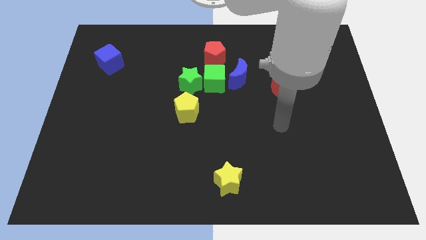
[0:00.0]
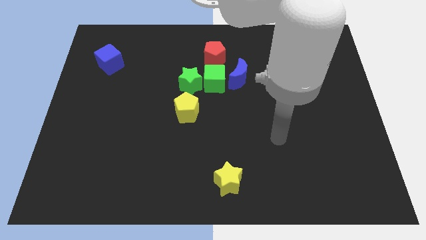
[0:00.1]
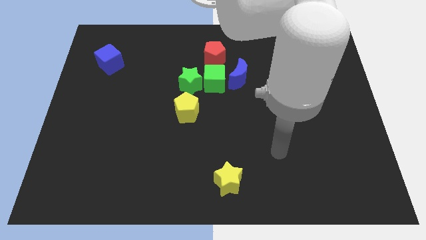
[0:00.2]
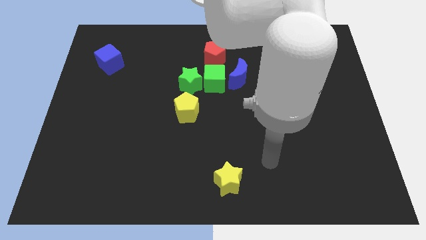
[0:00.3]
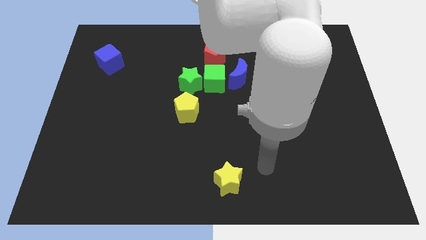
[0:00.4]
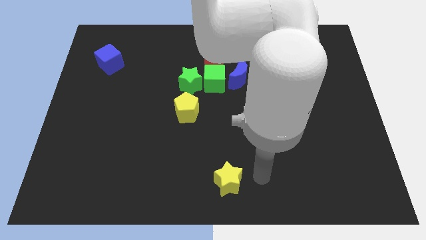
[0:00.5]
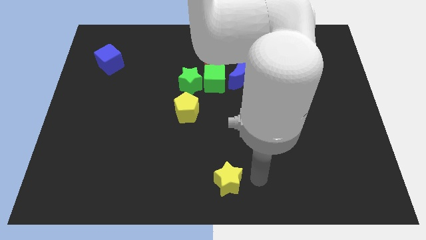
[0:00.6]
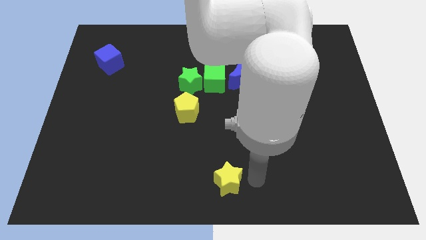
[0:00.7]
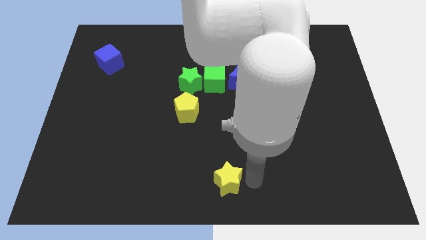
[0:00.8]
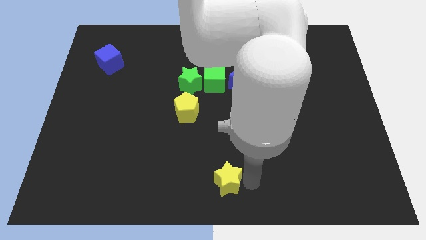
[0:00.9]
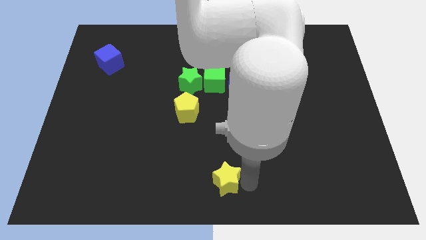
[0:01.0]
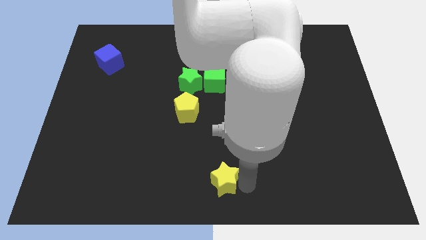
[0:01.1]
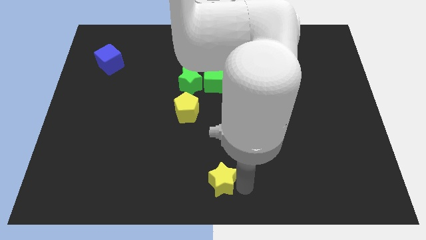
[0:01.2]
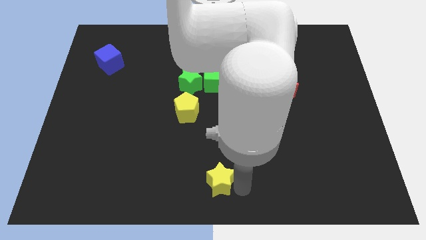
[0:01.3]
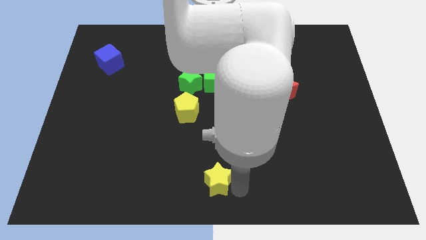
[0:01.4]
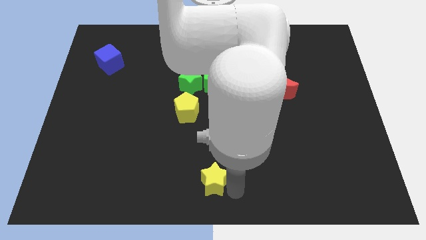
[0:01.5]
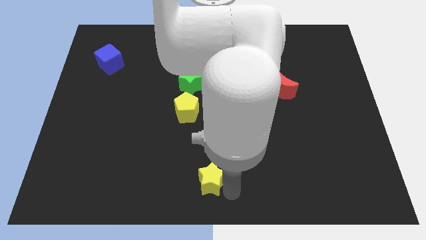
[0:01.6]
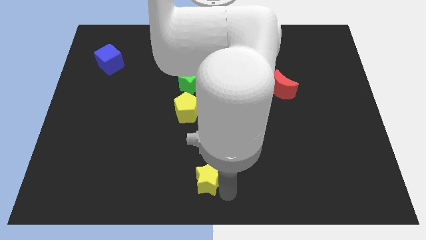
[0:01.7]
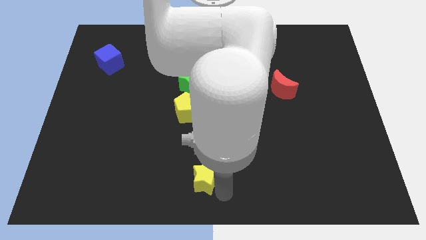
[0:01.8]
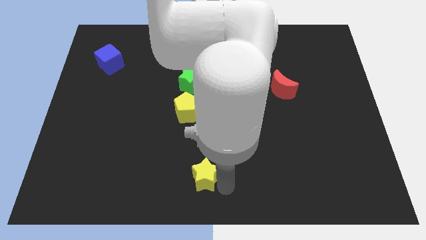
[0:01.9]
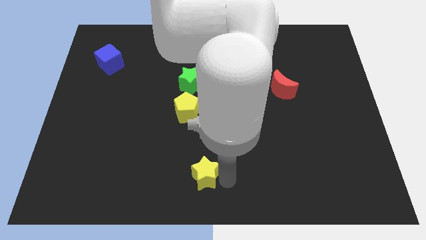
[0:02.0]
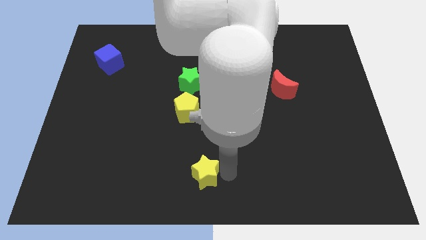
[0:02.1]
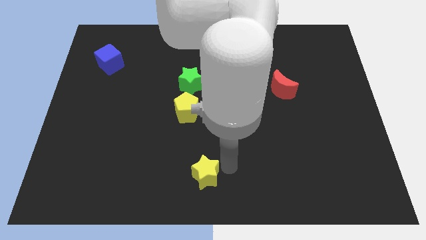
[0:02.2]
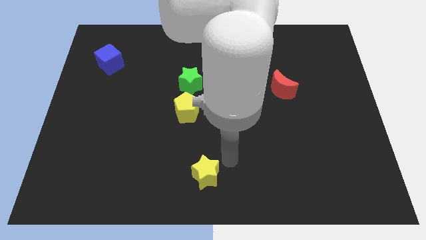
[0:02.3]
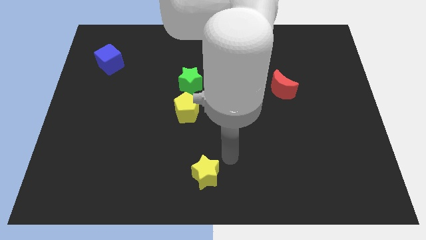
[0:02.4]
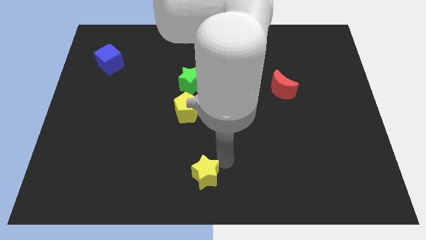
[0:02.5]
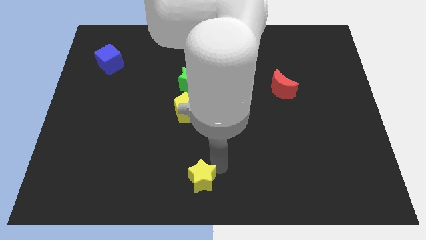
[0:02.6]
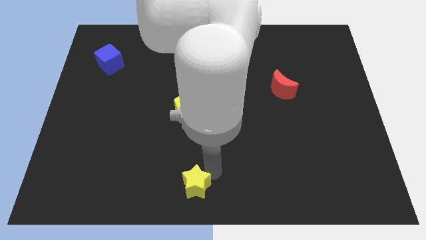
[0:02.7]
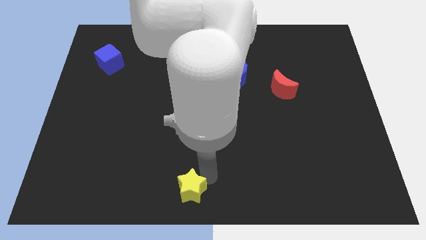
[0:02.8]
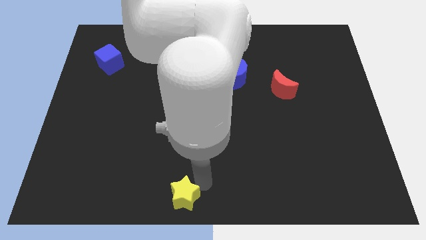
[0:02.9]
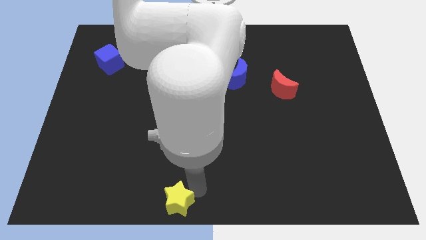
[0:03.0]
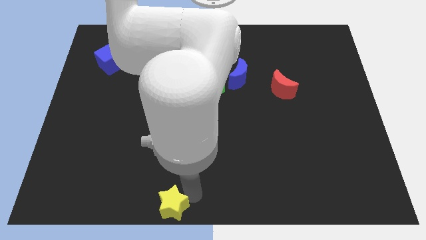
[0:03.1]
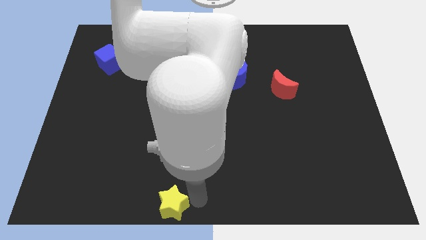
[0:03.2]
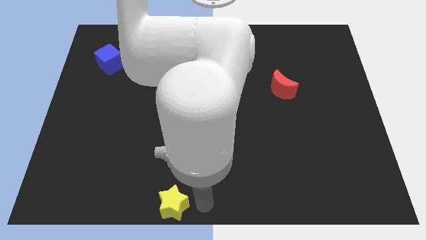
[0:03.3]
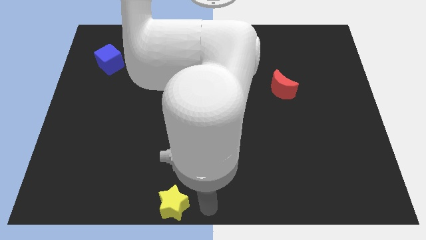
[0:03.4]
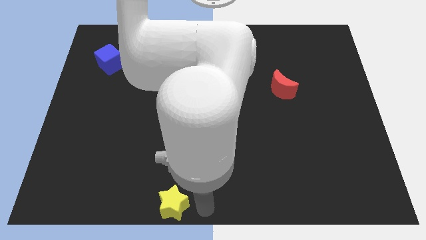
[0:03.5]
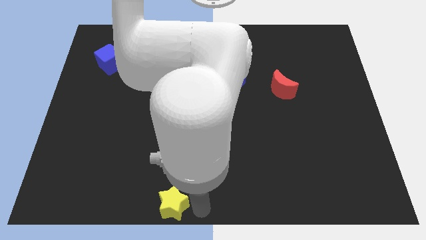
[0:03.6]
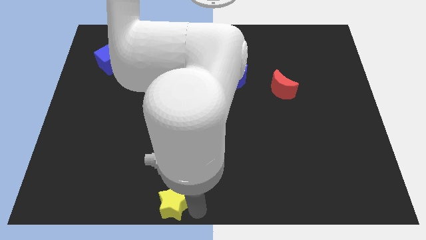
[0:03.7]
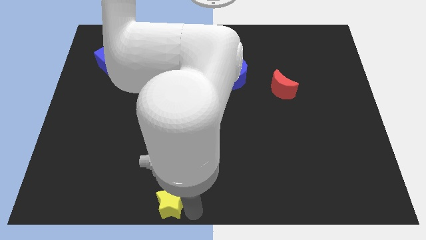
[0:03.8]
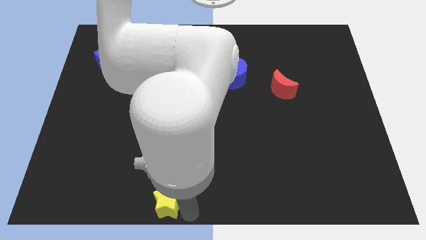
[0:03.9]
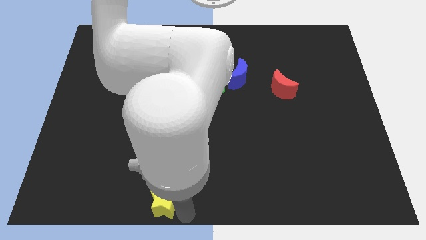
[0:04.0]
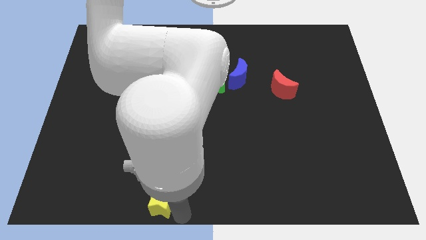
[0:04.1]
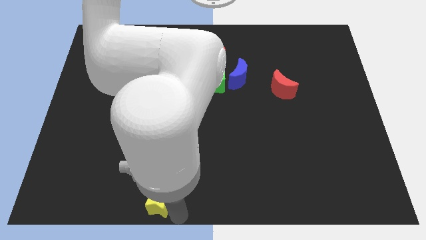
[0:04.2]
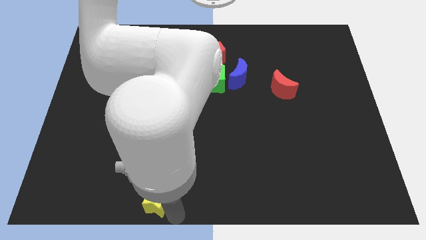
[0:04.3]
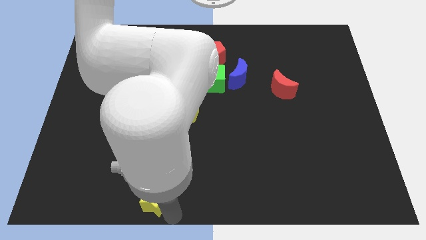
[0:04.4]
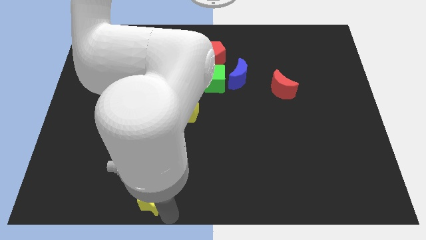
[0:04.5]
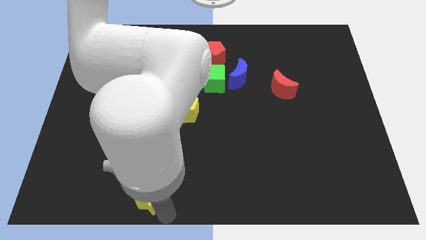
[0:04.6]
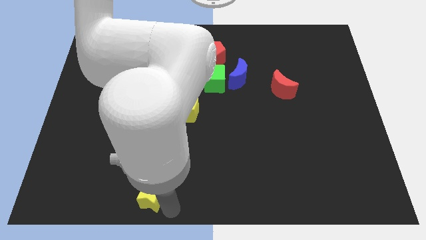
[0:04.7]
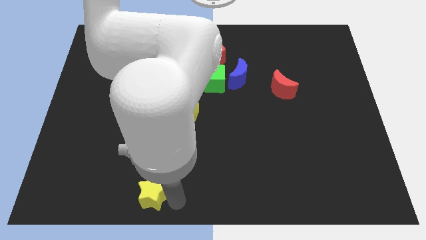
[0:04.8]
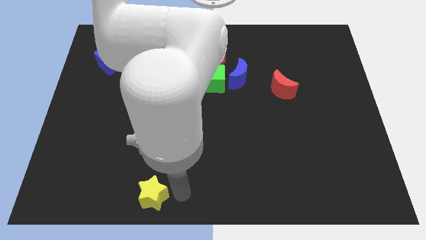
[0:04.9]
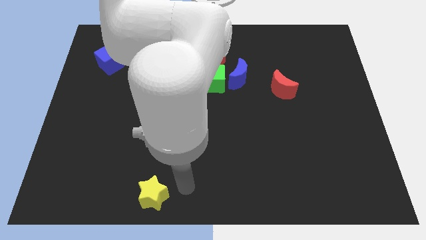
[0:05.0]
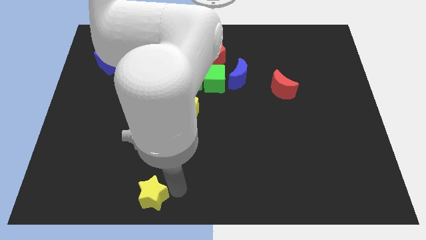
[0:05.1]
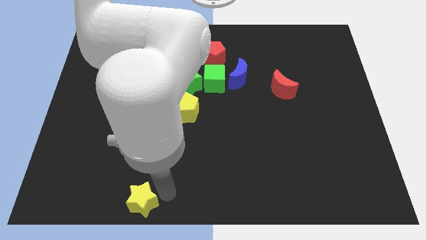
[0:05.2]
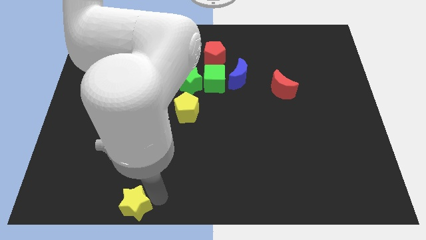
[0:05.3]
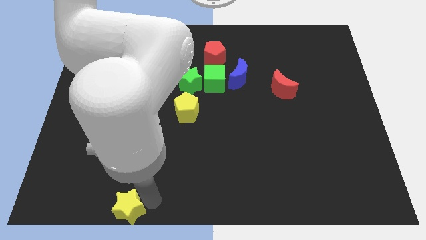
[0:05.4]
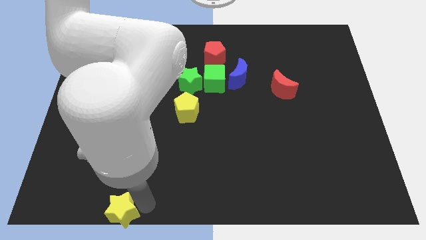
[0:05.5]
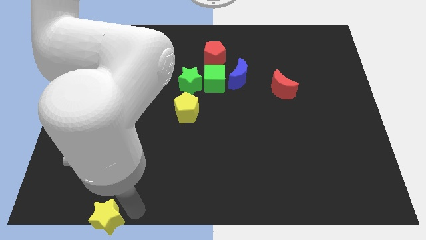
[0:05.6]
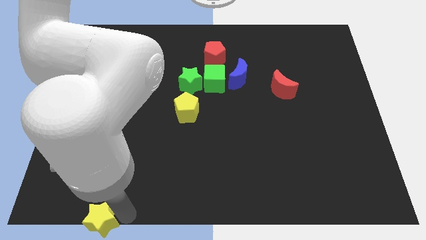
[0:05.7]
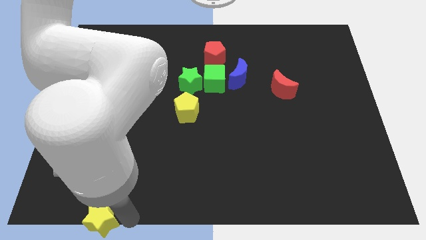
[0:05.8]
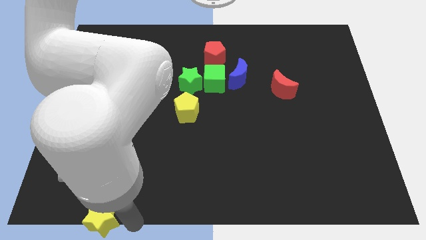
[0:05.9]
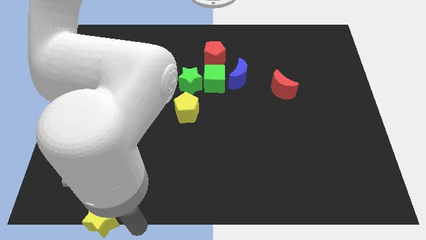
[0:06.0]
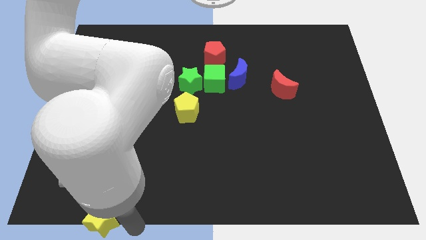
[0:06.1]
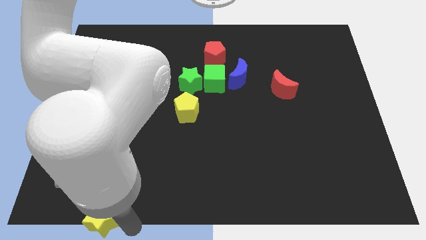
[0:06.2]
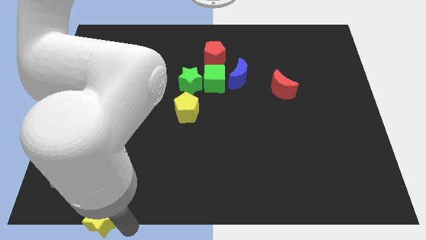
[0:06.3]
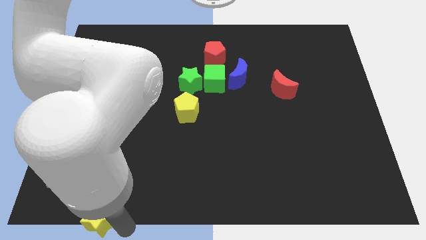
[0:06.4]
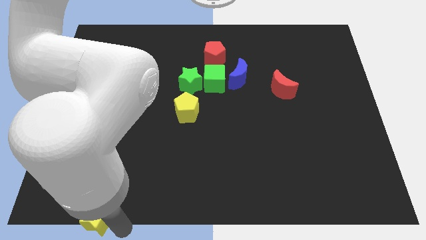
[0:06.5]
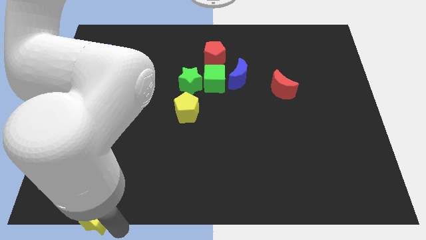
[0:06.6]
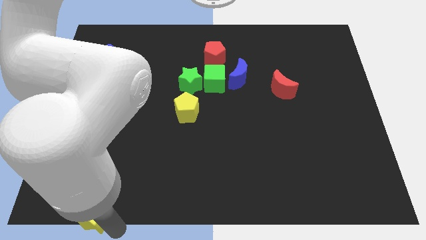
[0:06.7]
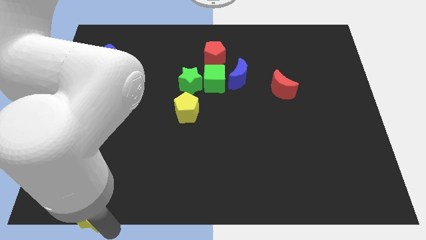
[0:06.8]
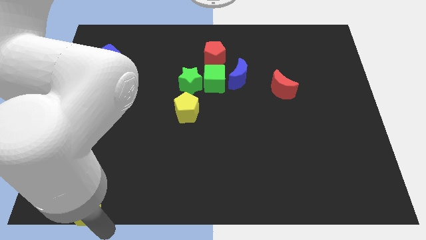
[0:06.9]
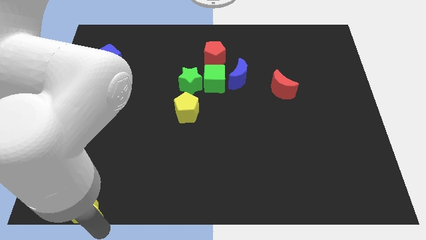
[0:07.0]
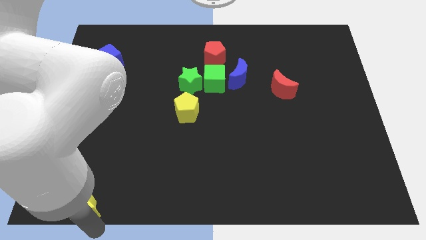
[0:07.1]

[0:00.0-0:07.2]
move the yellow star to the bottom left of the board
